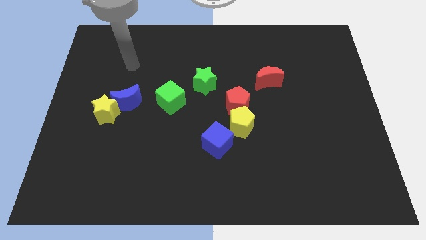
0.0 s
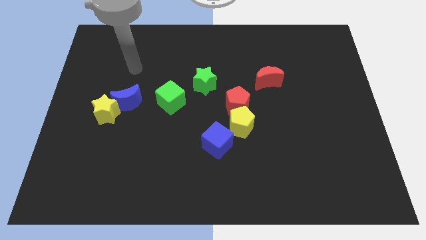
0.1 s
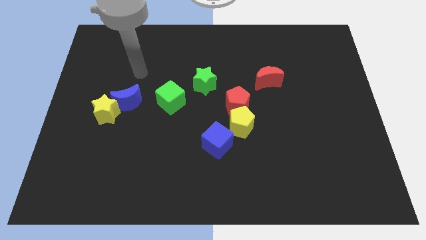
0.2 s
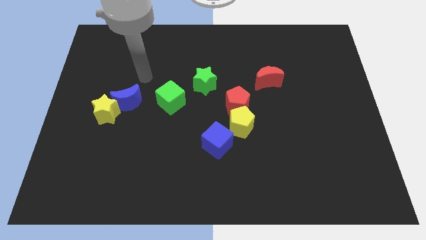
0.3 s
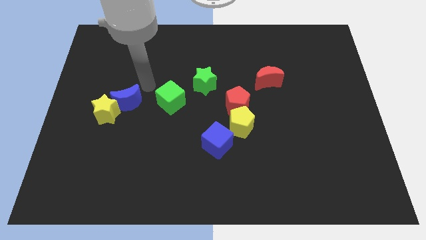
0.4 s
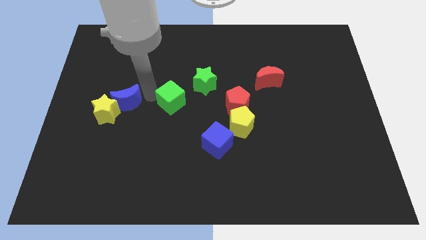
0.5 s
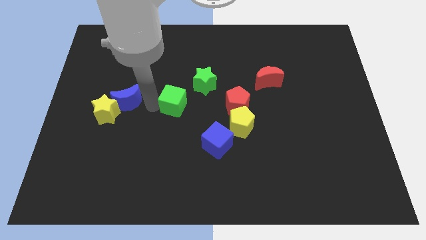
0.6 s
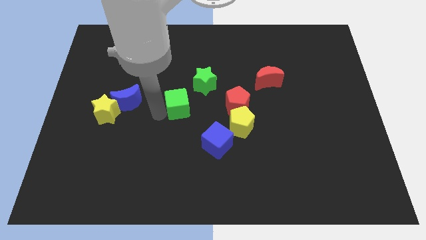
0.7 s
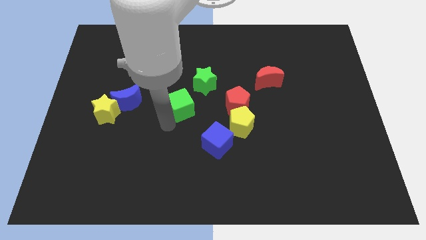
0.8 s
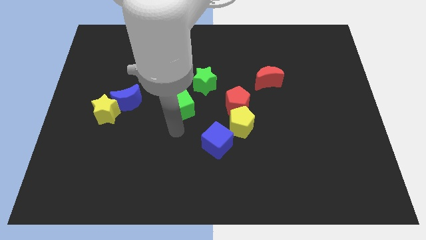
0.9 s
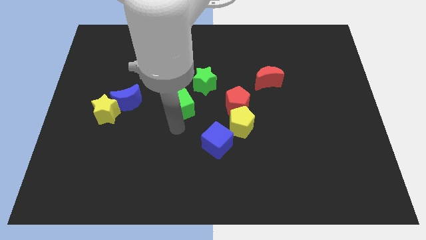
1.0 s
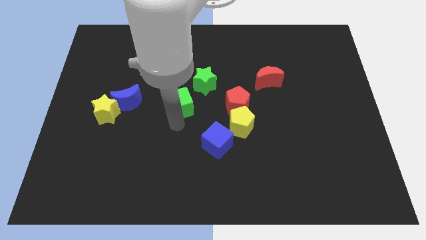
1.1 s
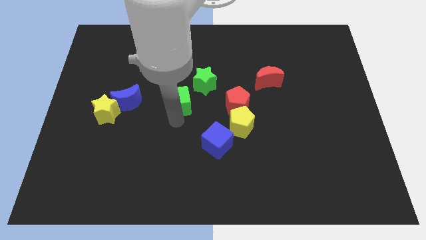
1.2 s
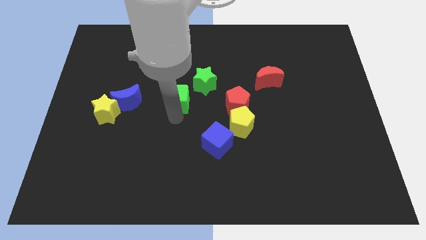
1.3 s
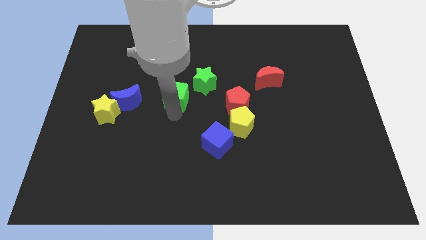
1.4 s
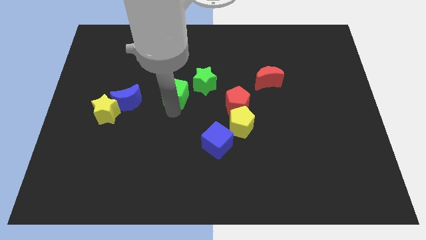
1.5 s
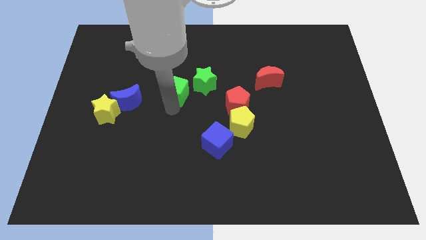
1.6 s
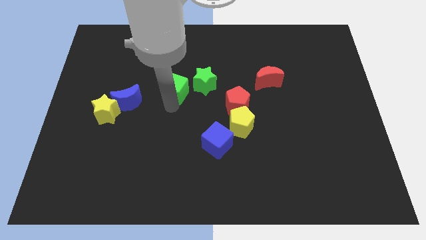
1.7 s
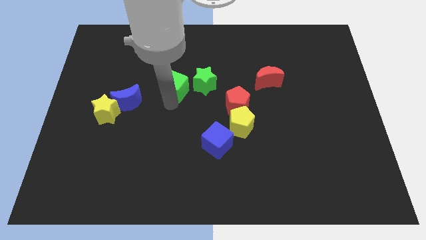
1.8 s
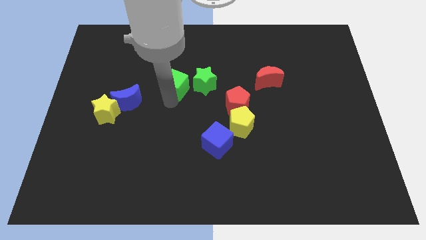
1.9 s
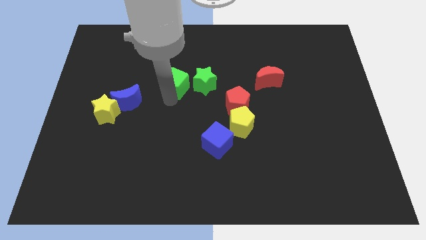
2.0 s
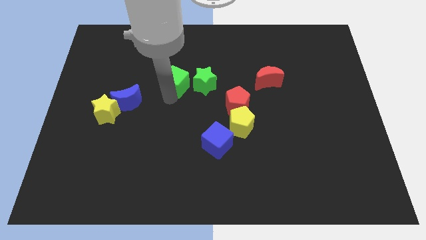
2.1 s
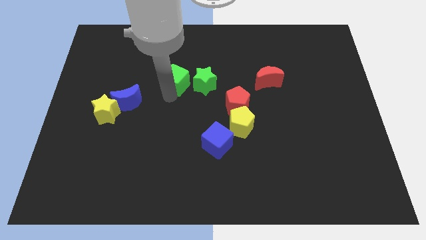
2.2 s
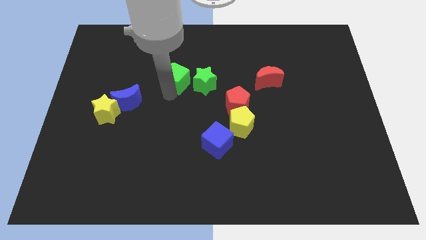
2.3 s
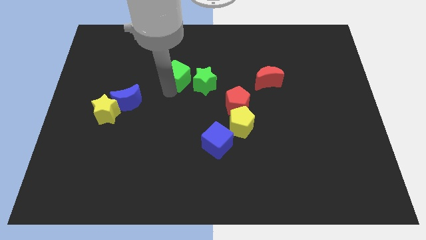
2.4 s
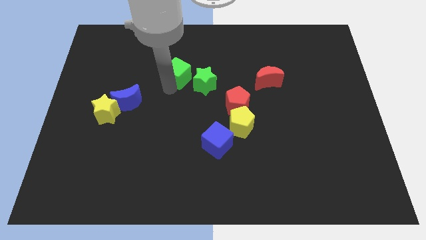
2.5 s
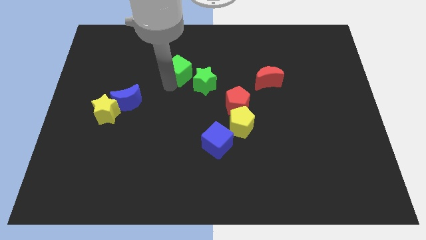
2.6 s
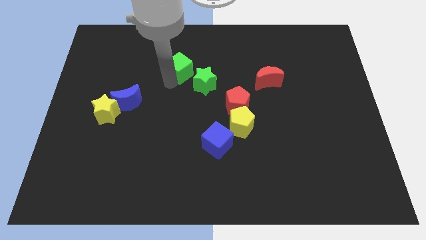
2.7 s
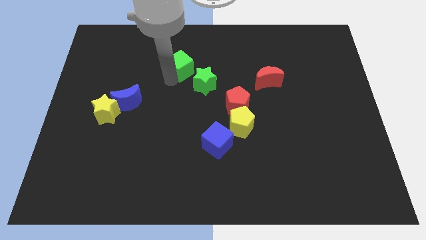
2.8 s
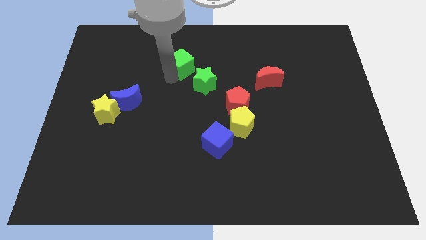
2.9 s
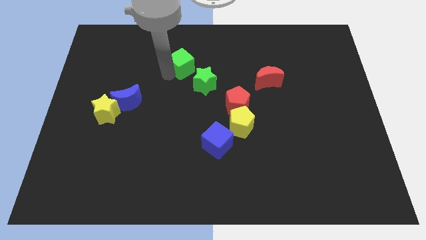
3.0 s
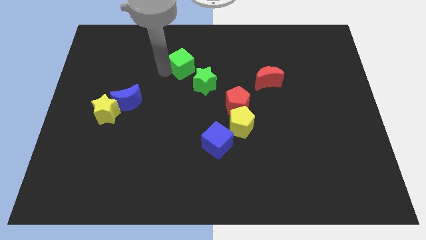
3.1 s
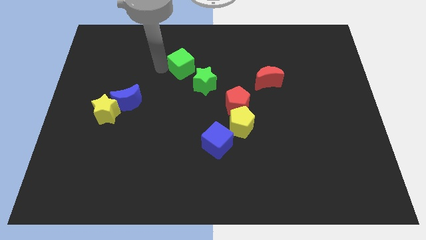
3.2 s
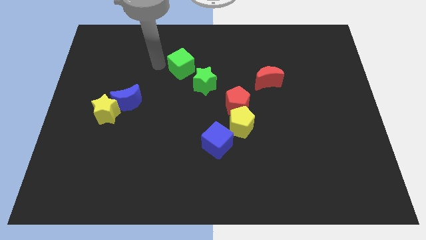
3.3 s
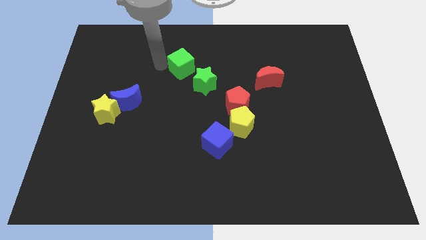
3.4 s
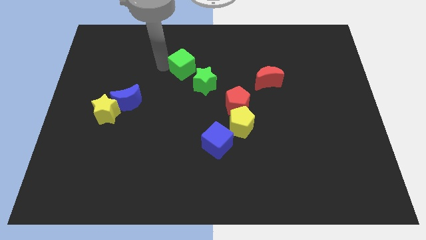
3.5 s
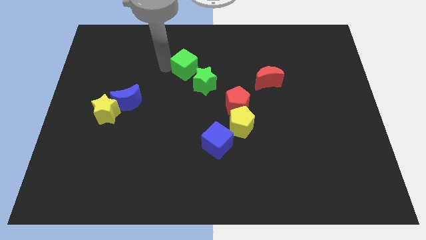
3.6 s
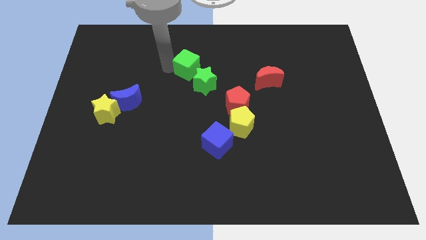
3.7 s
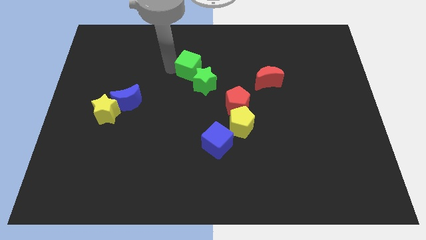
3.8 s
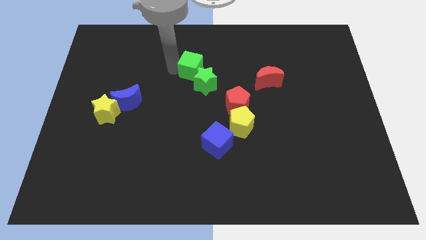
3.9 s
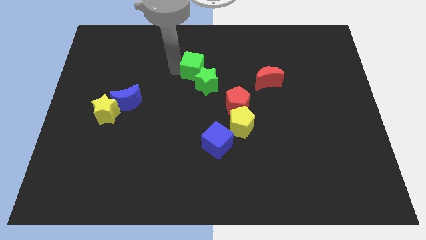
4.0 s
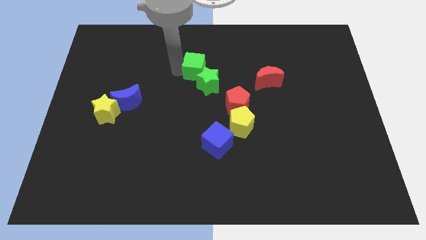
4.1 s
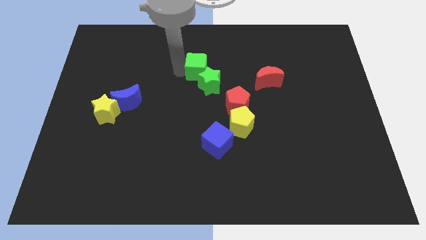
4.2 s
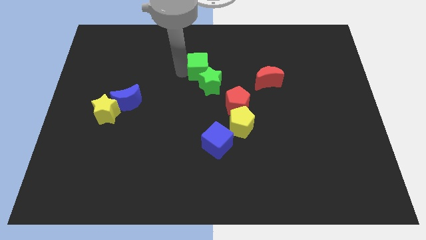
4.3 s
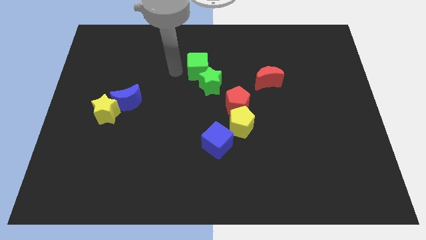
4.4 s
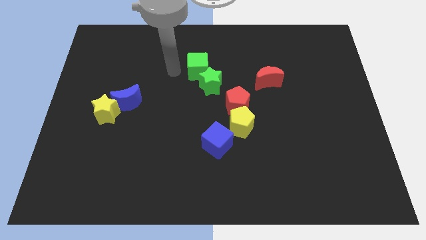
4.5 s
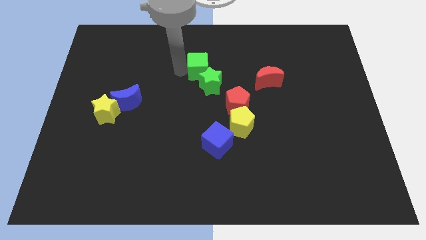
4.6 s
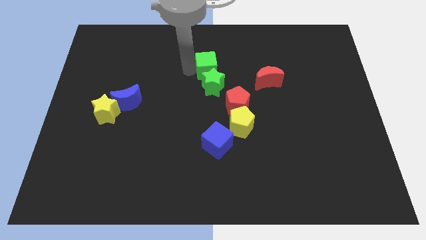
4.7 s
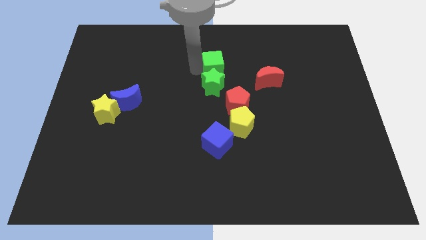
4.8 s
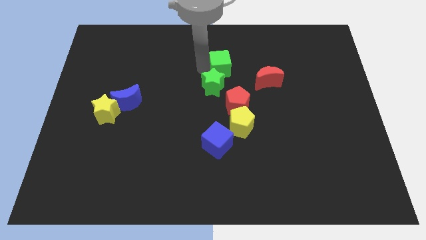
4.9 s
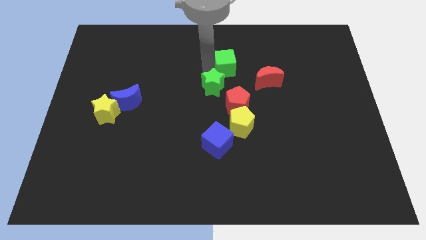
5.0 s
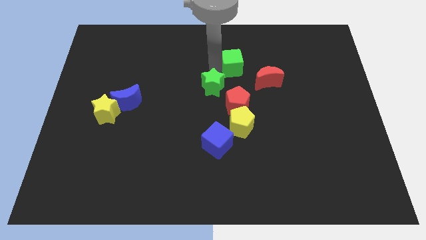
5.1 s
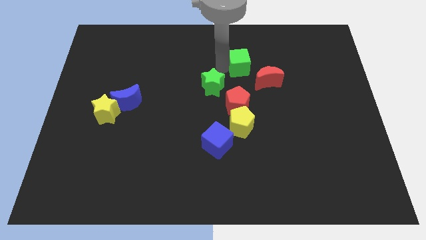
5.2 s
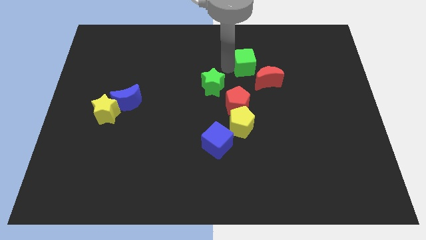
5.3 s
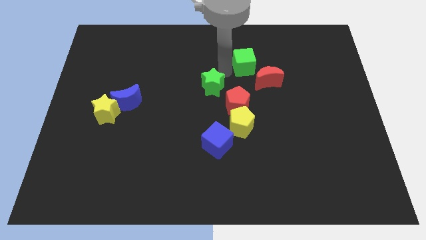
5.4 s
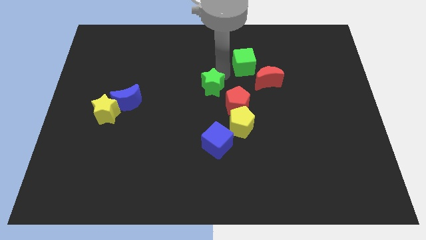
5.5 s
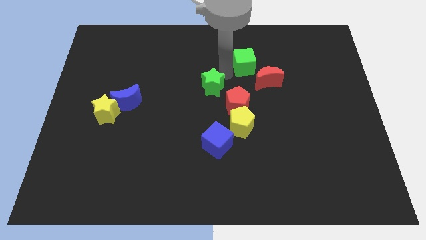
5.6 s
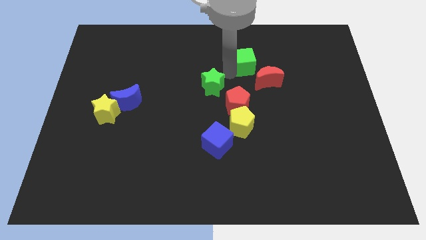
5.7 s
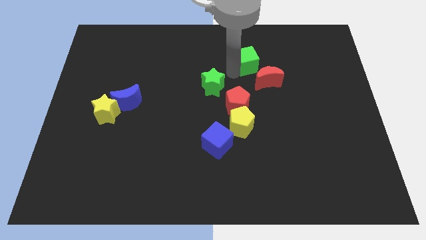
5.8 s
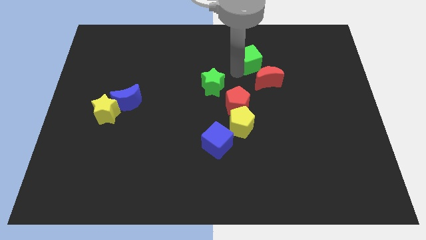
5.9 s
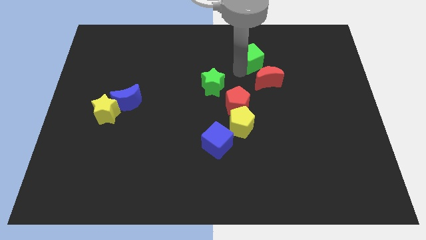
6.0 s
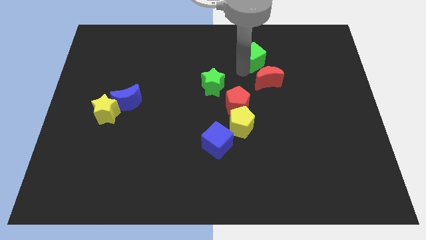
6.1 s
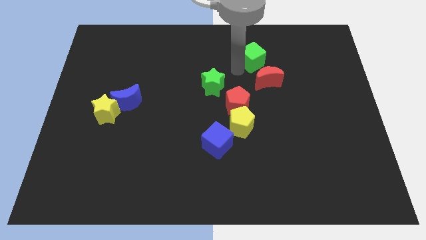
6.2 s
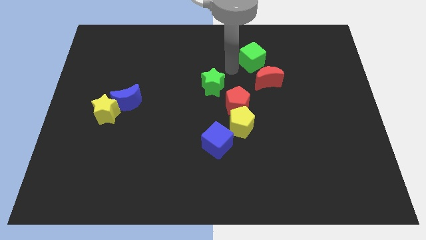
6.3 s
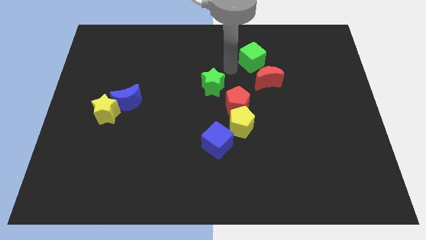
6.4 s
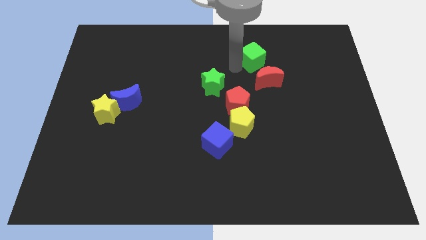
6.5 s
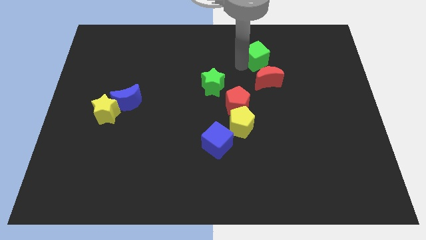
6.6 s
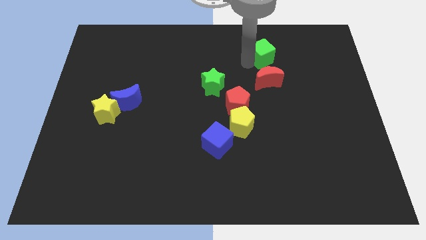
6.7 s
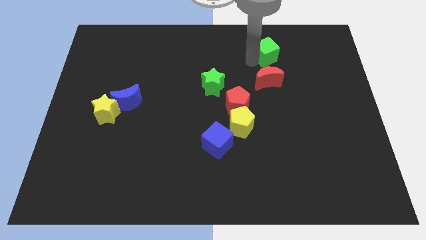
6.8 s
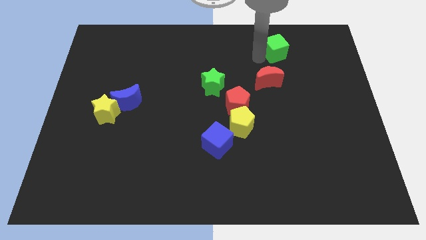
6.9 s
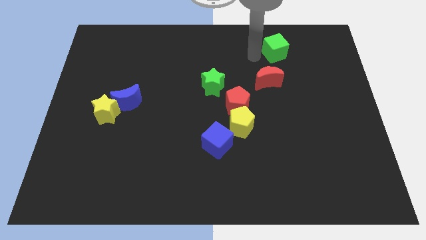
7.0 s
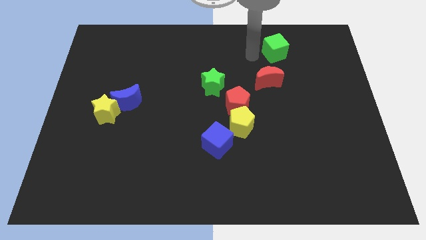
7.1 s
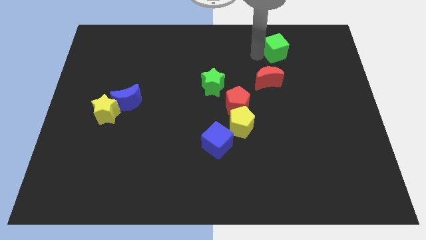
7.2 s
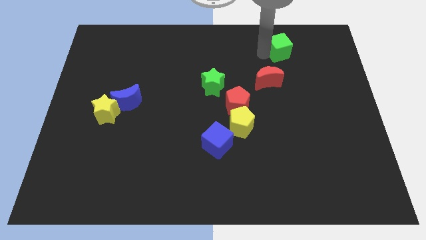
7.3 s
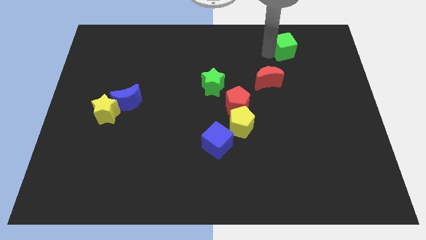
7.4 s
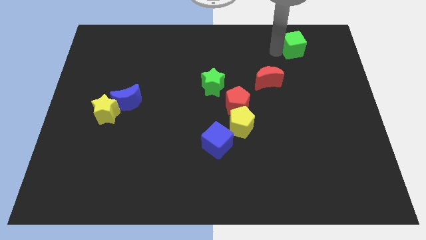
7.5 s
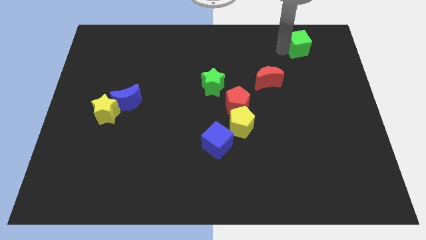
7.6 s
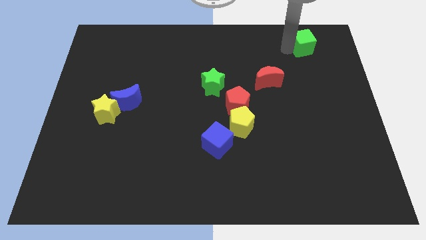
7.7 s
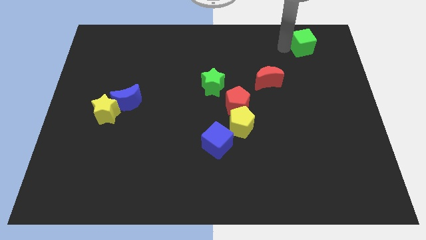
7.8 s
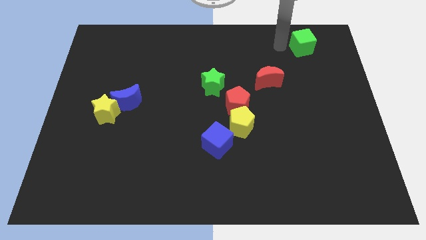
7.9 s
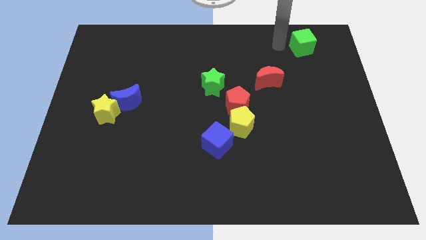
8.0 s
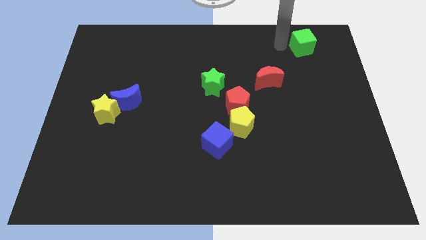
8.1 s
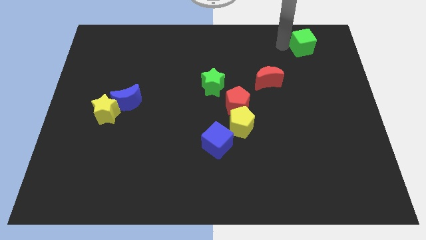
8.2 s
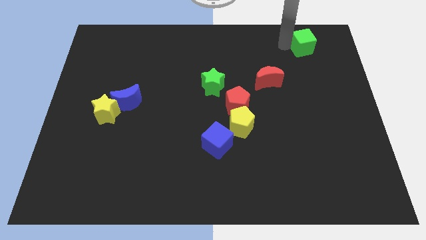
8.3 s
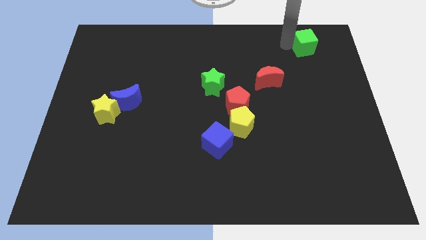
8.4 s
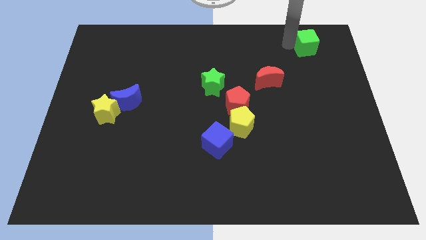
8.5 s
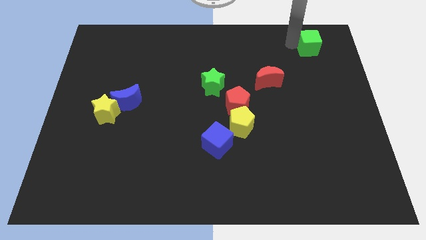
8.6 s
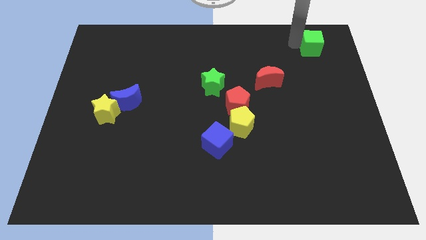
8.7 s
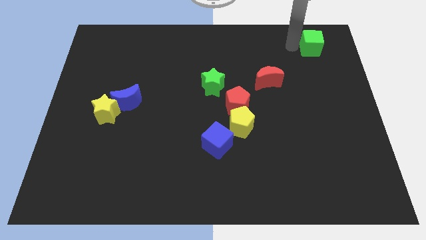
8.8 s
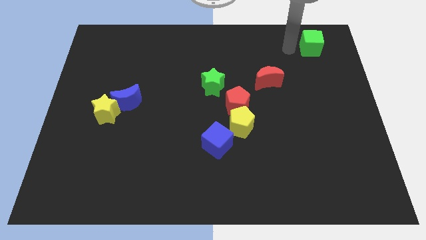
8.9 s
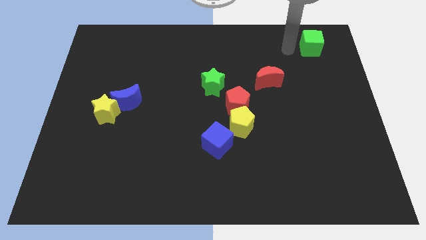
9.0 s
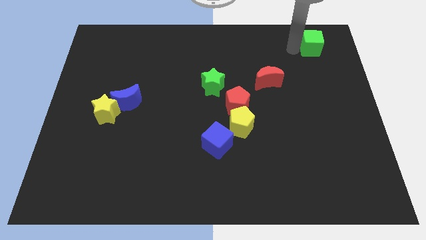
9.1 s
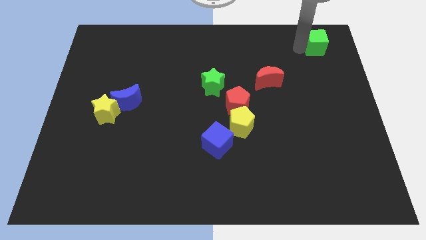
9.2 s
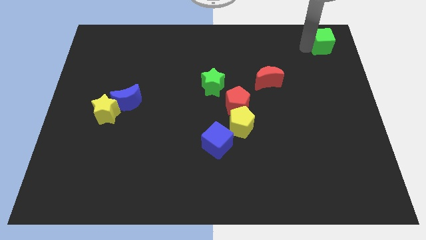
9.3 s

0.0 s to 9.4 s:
slide the green cube to the top right corner
